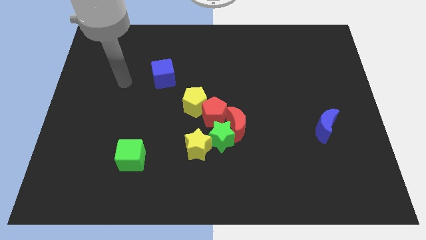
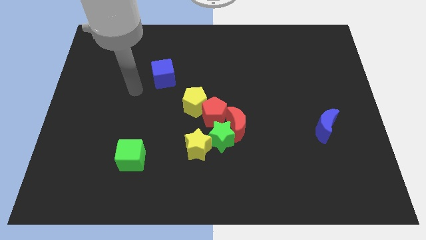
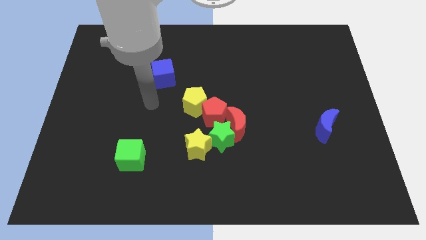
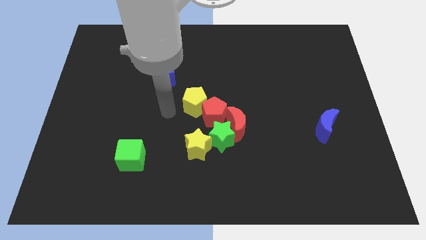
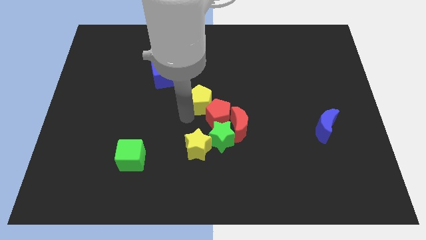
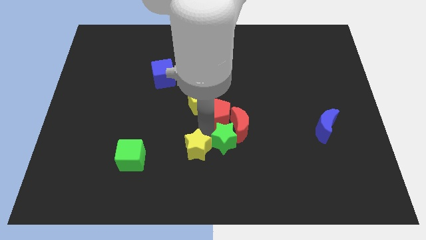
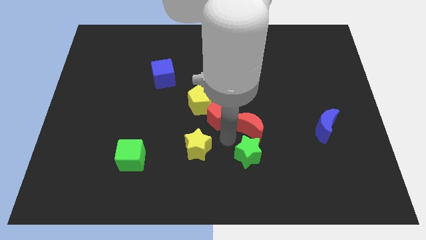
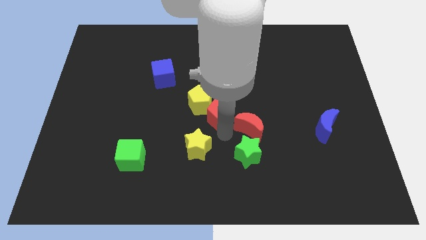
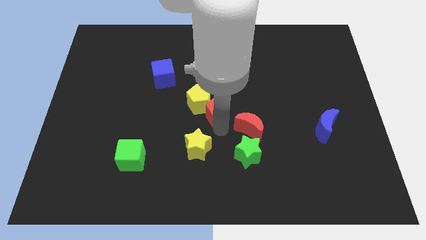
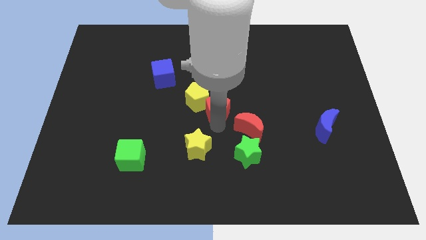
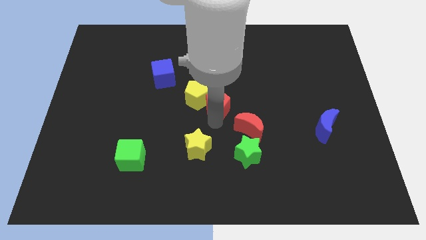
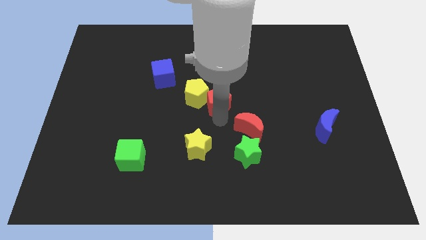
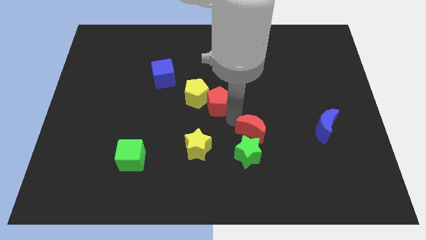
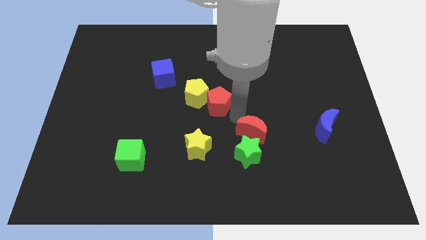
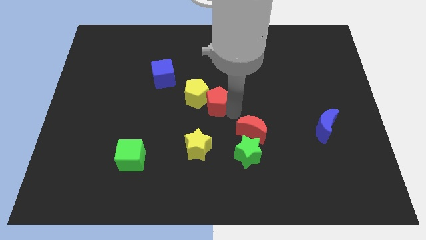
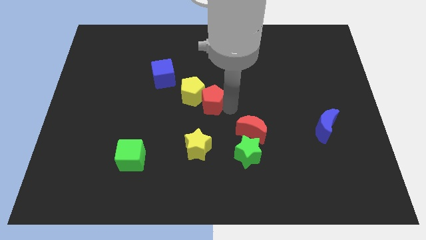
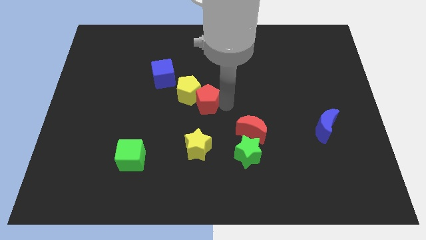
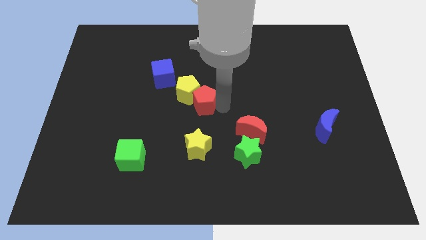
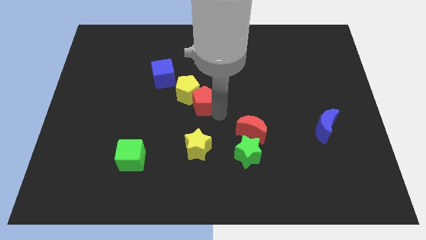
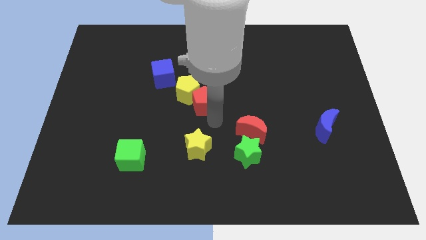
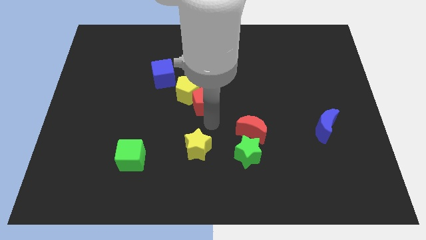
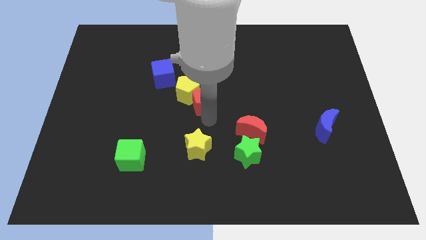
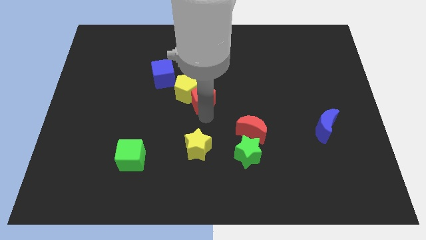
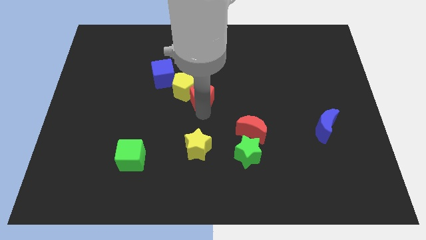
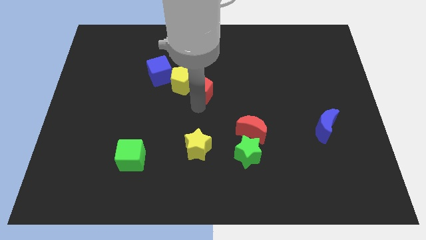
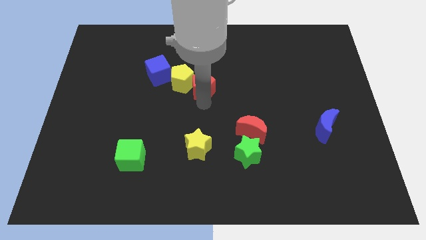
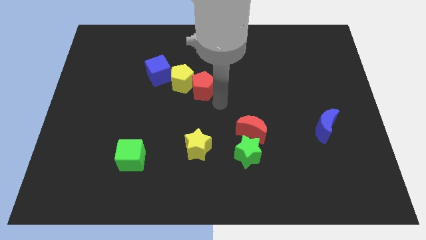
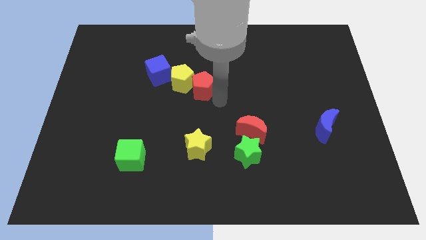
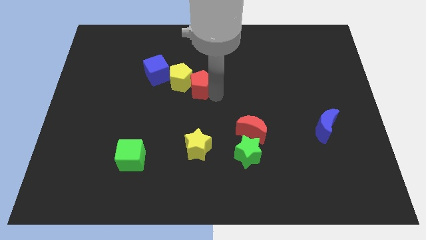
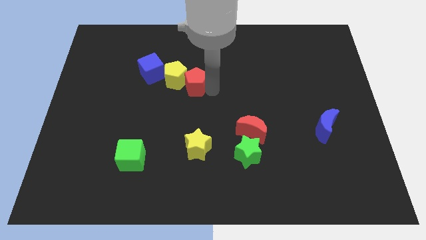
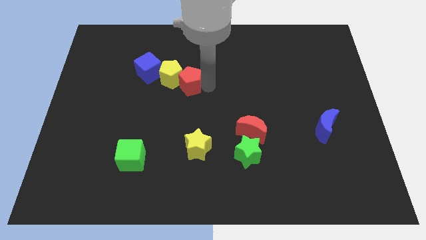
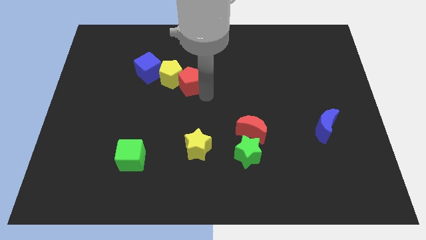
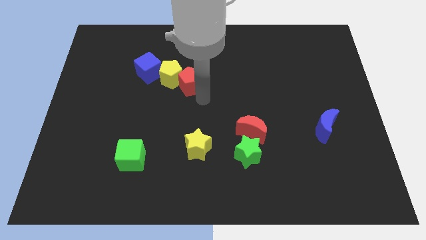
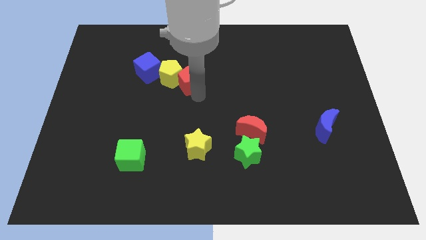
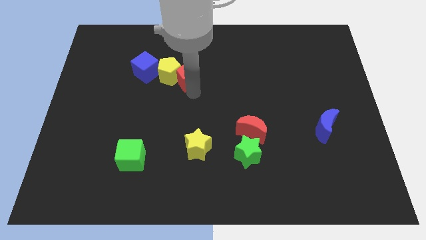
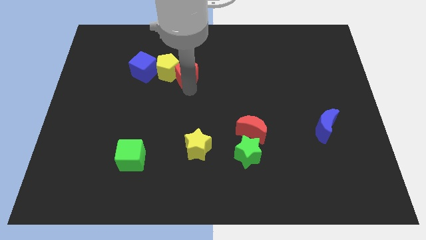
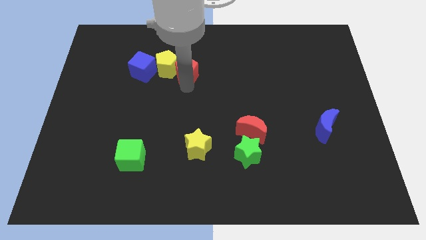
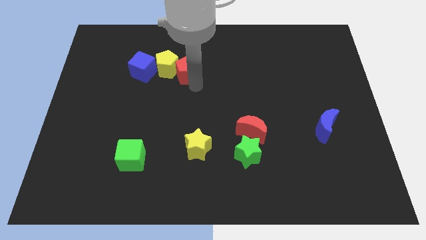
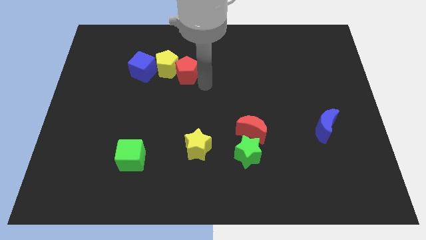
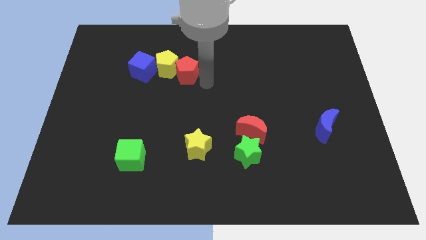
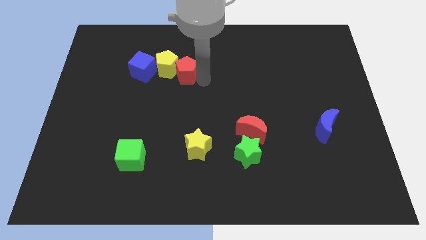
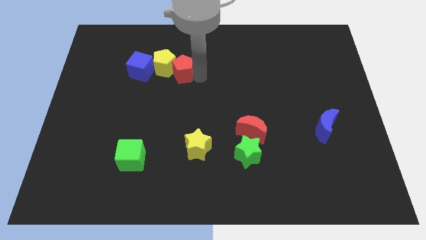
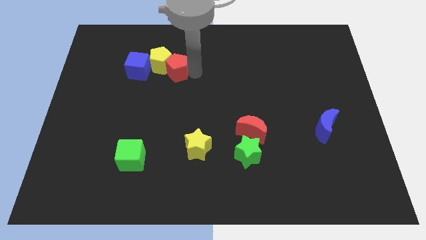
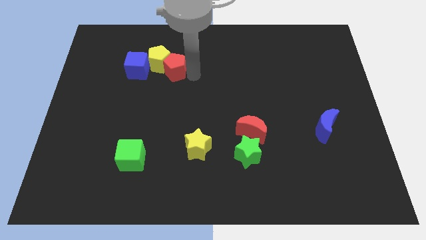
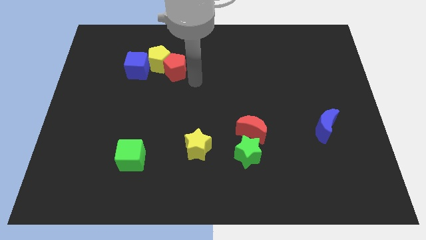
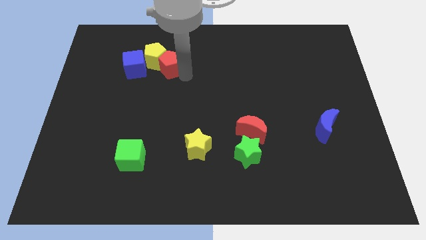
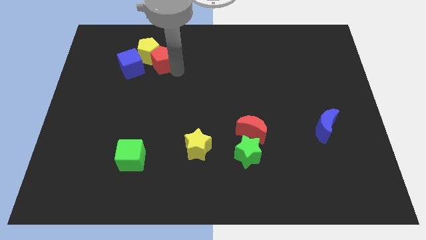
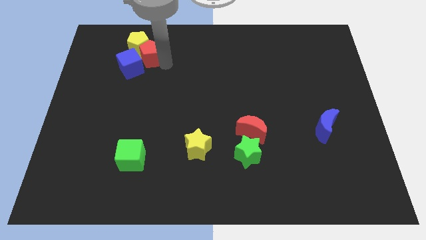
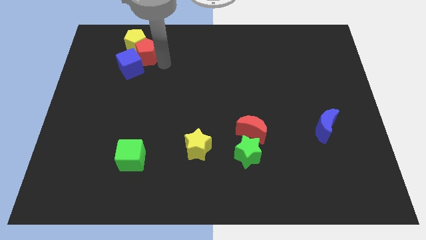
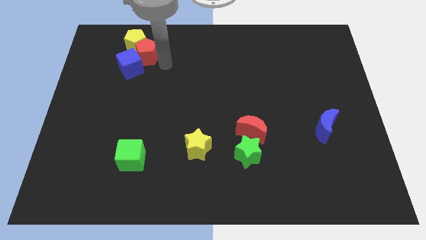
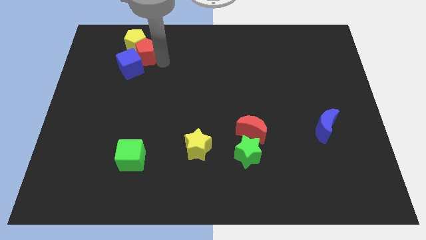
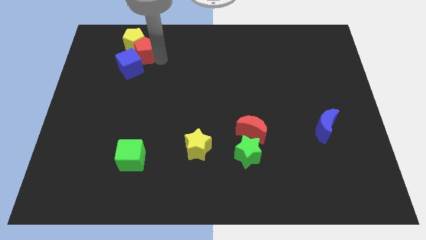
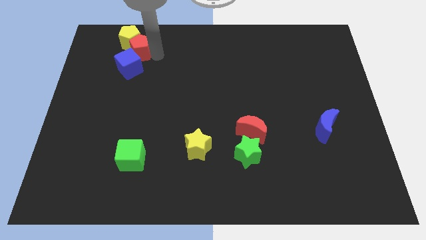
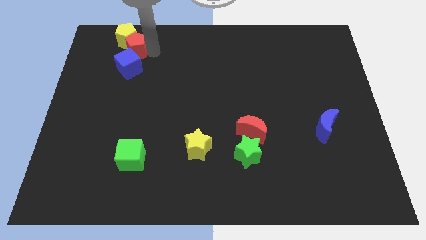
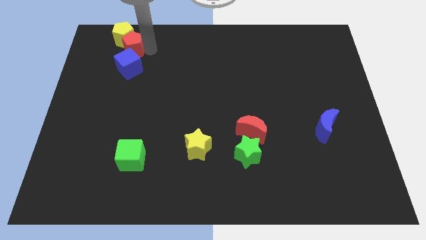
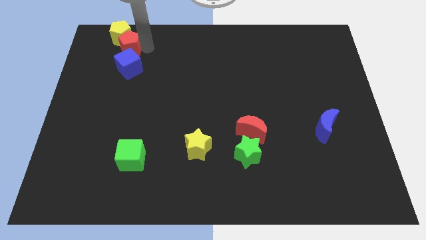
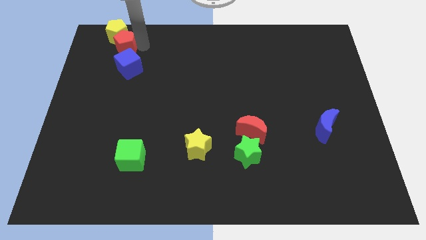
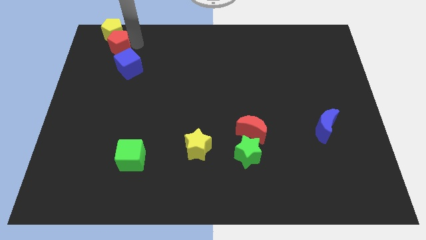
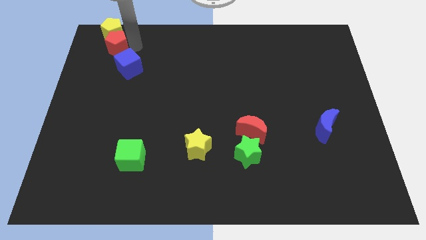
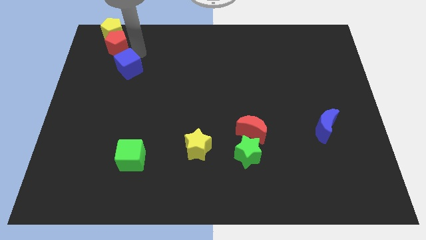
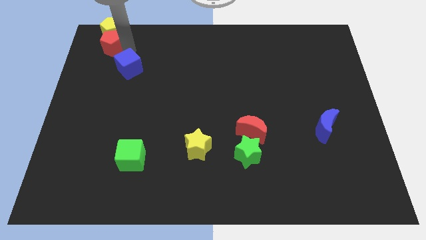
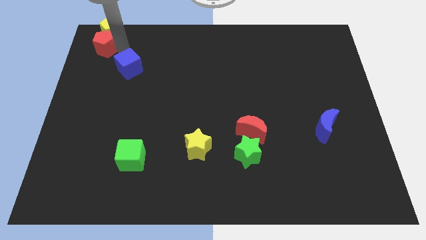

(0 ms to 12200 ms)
put the red pentagon to the top left
